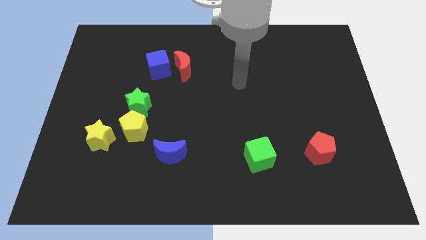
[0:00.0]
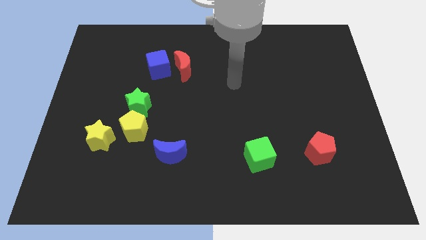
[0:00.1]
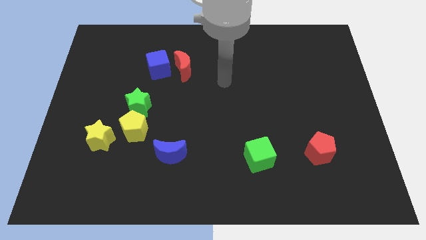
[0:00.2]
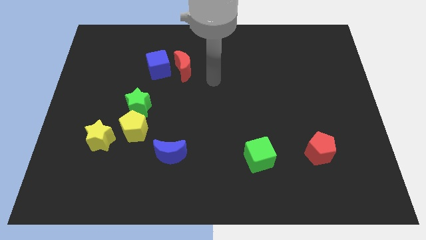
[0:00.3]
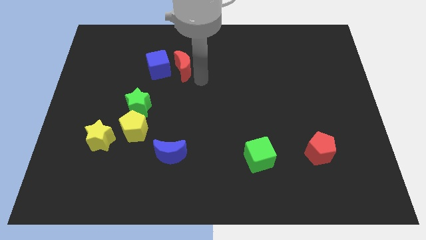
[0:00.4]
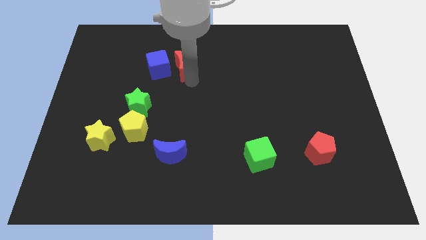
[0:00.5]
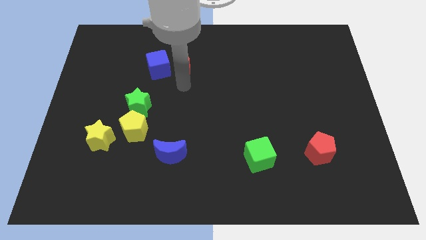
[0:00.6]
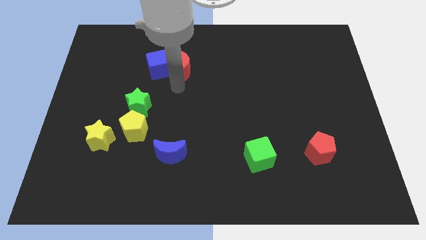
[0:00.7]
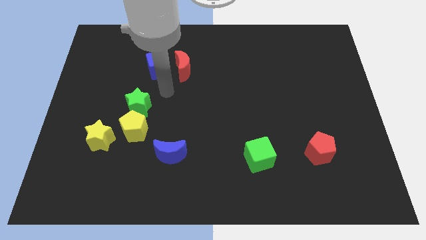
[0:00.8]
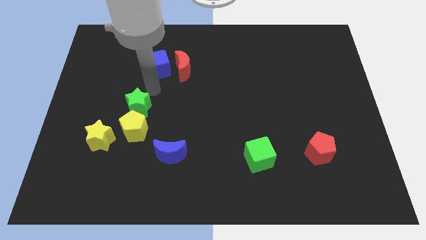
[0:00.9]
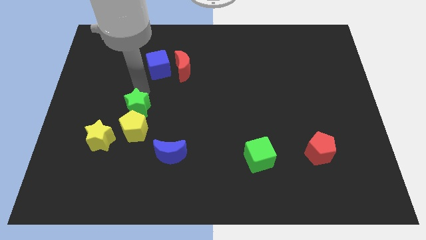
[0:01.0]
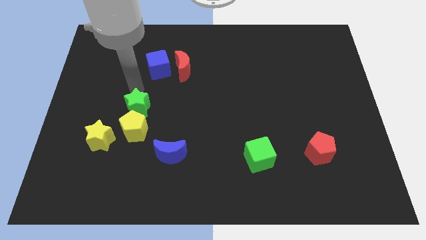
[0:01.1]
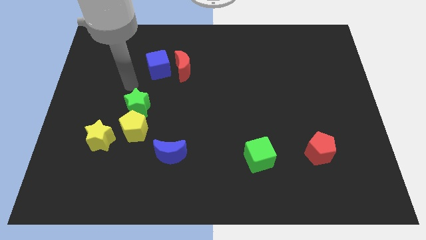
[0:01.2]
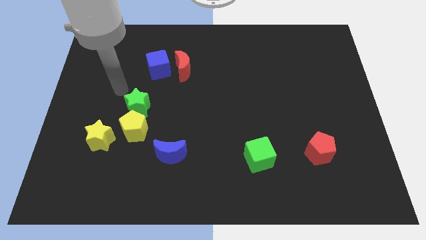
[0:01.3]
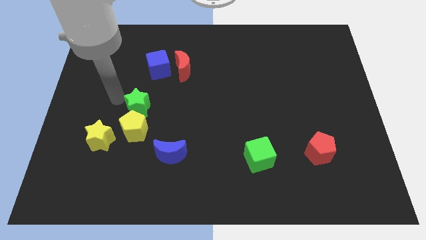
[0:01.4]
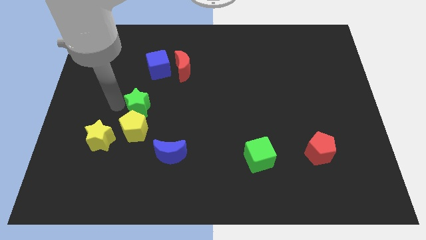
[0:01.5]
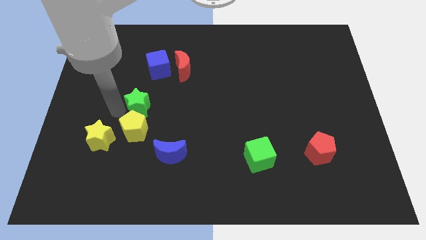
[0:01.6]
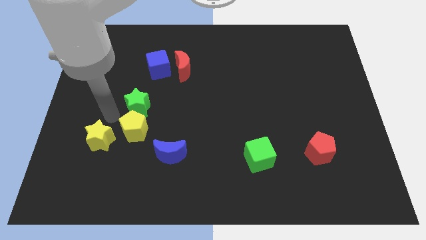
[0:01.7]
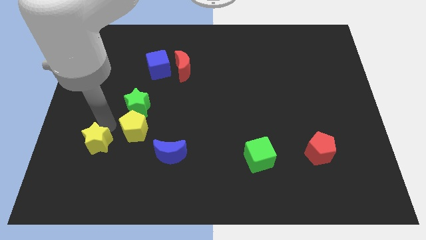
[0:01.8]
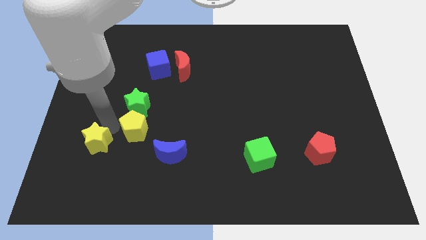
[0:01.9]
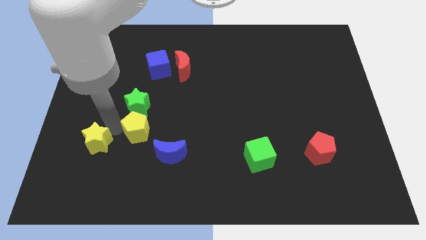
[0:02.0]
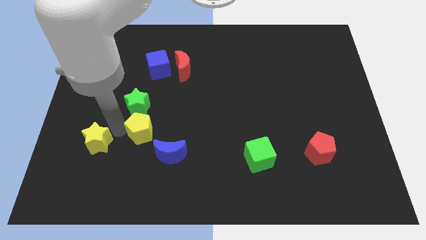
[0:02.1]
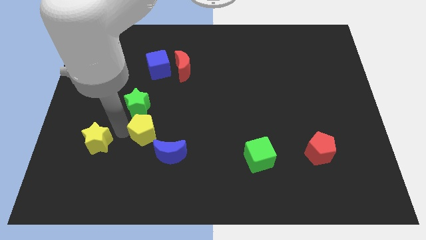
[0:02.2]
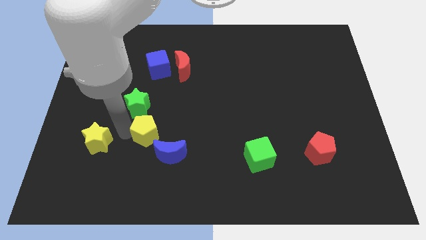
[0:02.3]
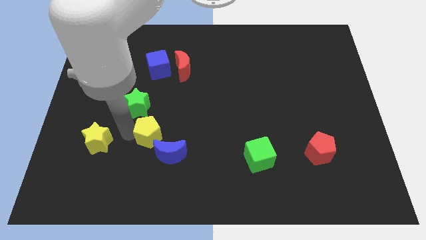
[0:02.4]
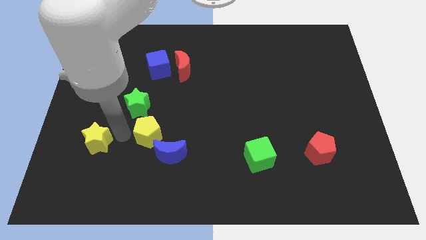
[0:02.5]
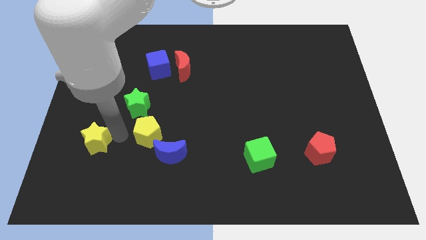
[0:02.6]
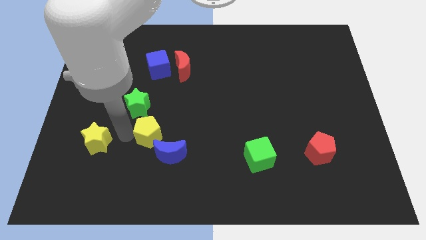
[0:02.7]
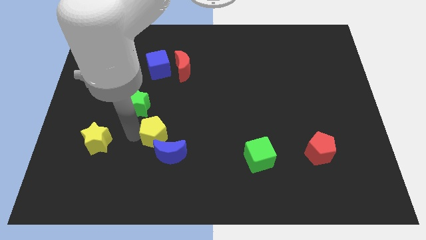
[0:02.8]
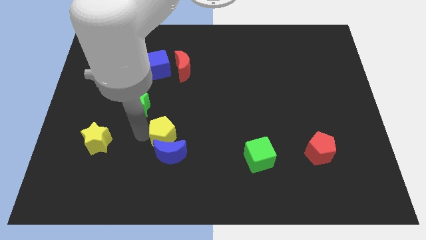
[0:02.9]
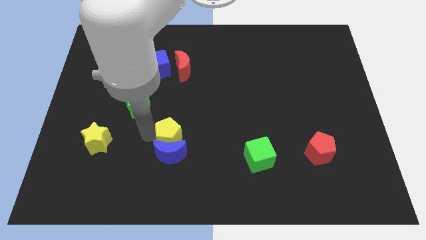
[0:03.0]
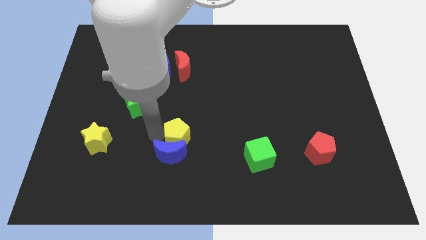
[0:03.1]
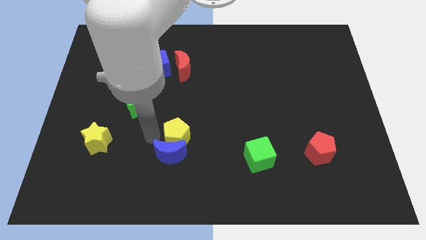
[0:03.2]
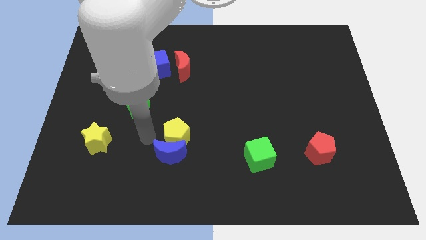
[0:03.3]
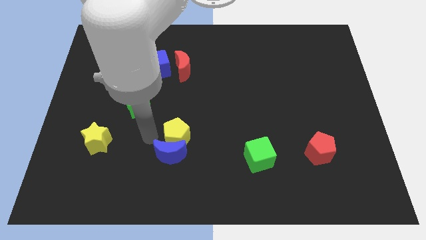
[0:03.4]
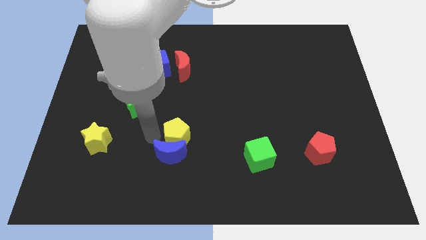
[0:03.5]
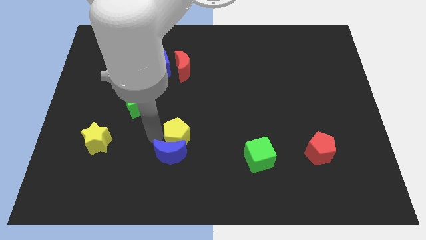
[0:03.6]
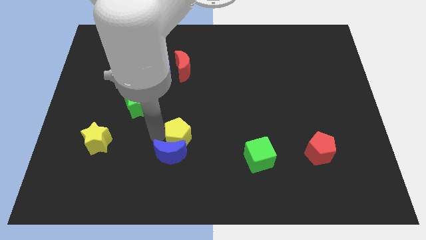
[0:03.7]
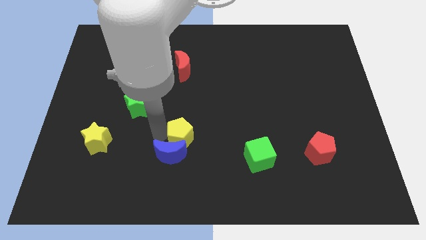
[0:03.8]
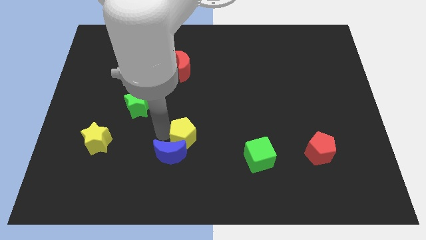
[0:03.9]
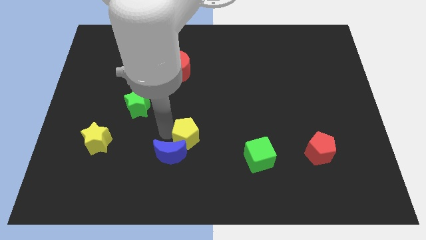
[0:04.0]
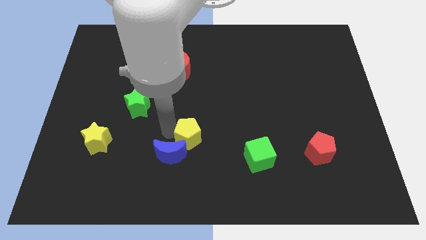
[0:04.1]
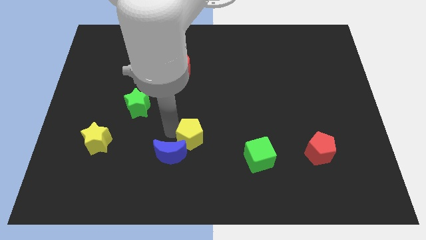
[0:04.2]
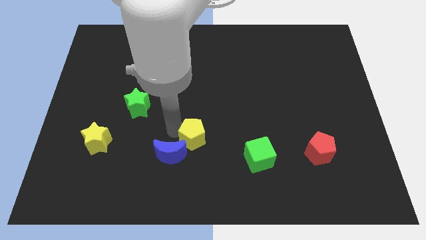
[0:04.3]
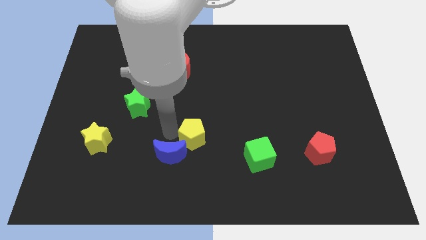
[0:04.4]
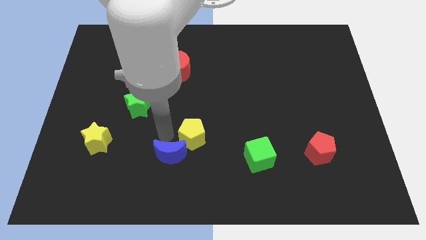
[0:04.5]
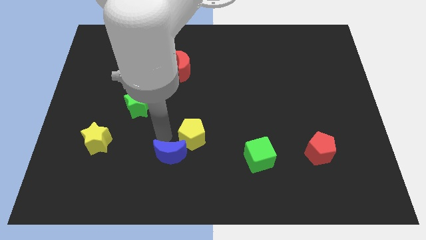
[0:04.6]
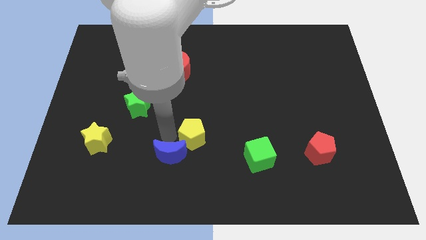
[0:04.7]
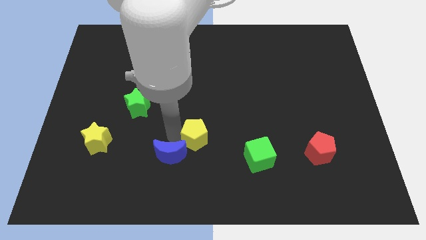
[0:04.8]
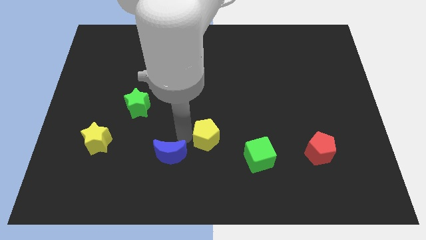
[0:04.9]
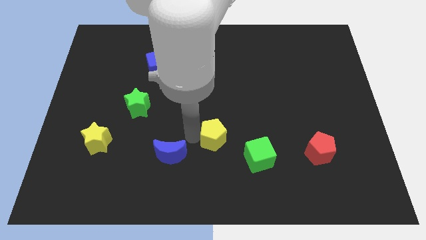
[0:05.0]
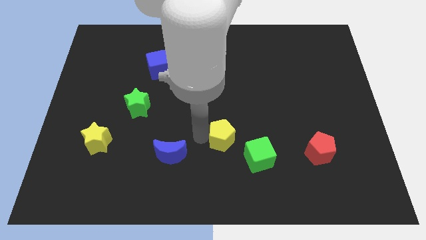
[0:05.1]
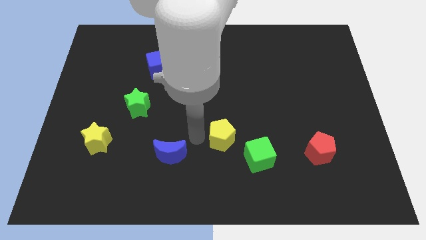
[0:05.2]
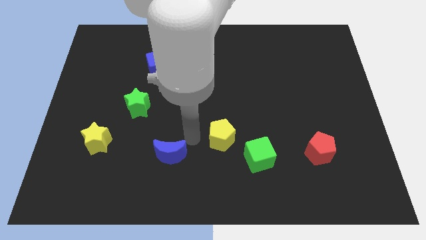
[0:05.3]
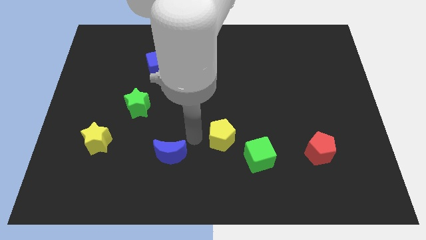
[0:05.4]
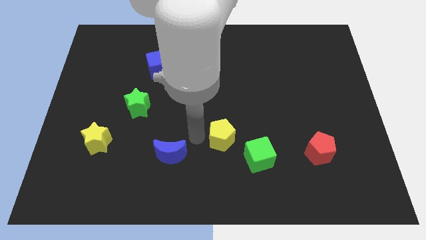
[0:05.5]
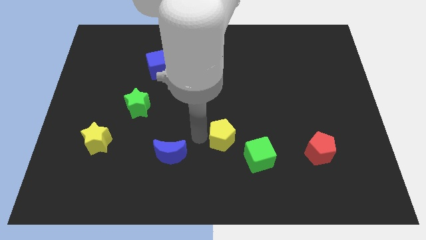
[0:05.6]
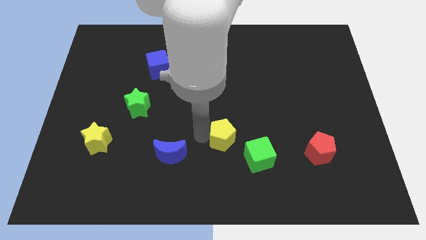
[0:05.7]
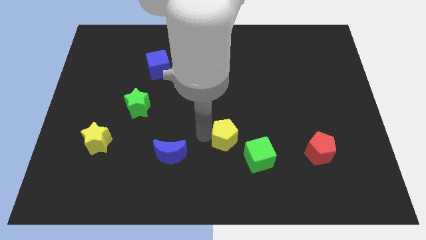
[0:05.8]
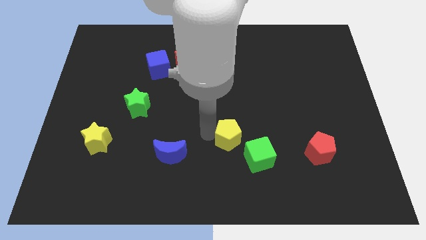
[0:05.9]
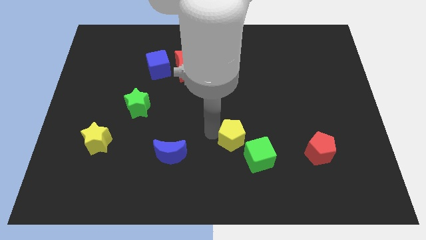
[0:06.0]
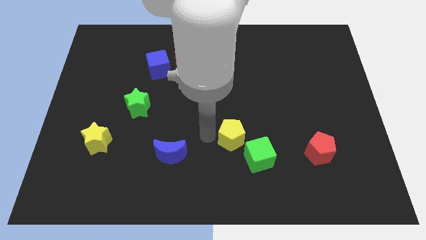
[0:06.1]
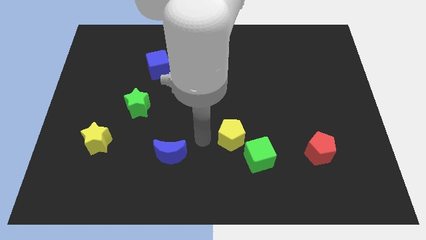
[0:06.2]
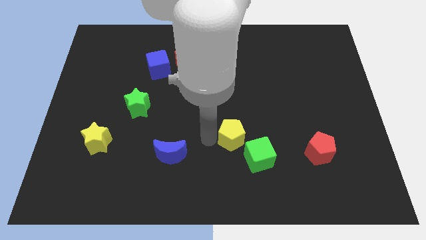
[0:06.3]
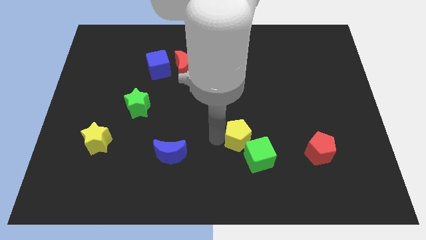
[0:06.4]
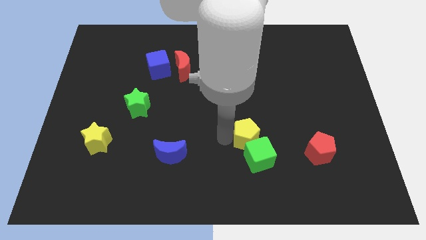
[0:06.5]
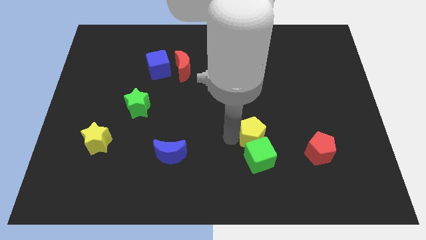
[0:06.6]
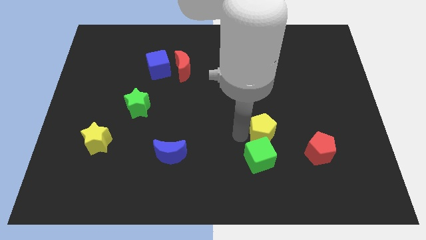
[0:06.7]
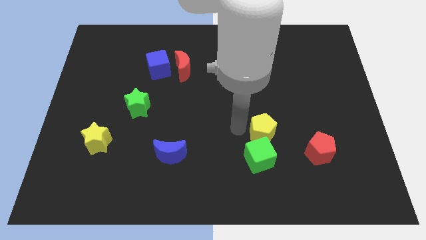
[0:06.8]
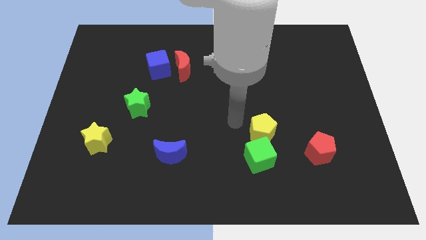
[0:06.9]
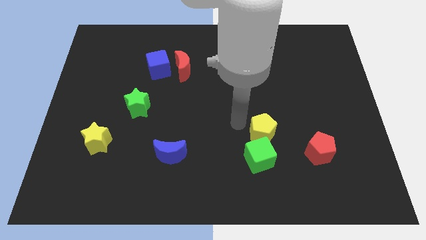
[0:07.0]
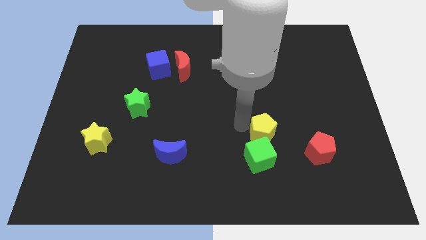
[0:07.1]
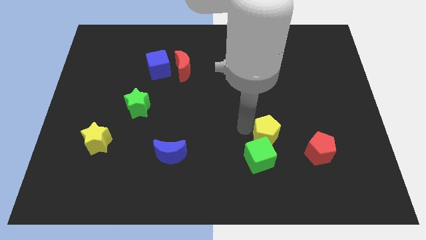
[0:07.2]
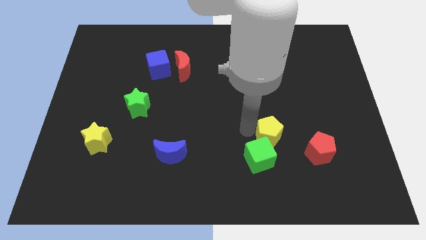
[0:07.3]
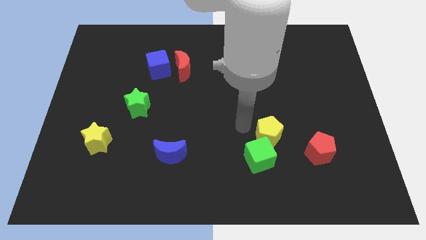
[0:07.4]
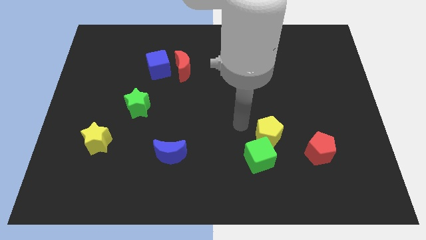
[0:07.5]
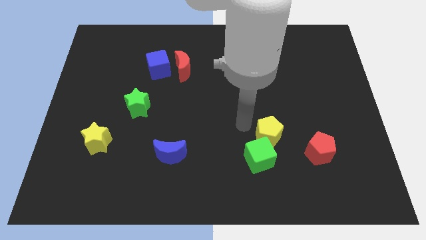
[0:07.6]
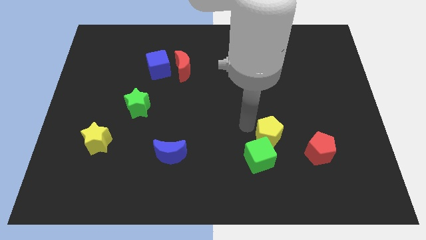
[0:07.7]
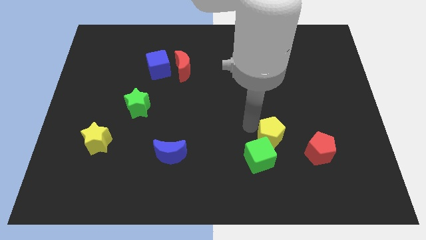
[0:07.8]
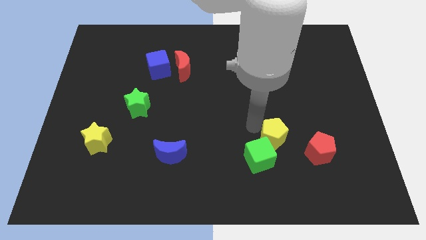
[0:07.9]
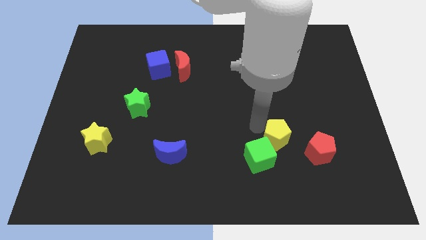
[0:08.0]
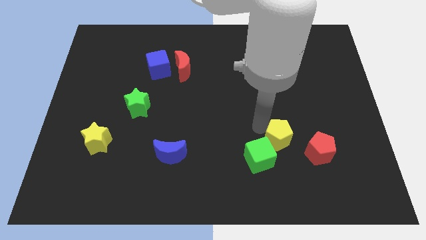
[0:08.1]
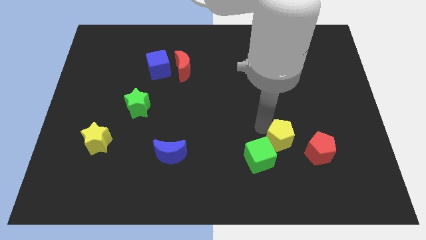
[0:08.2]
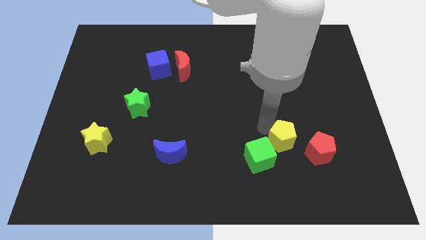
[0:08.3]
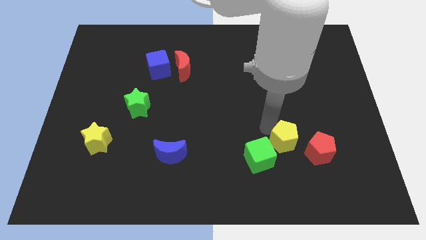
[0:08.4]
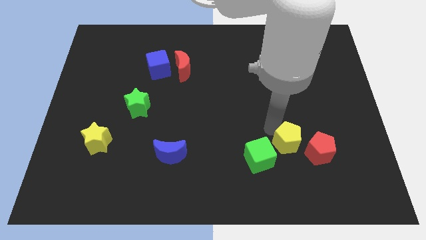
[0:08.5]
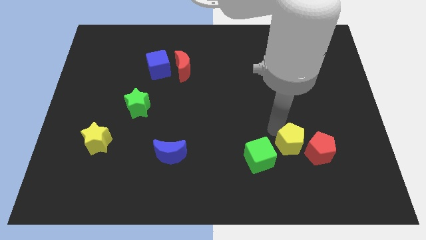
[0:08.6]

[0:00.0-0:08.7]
put the yellow pentagon towards the red pentagon
